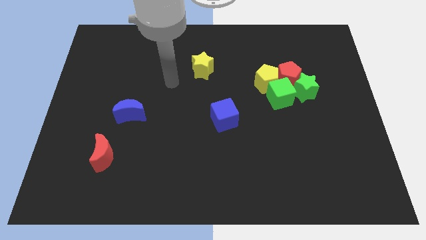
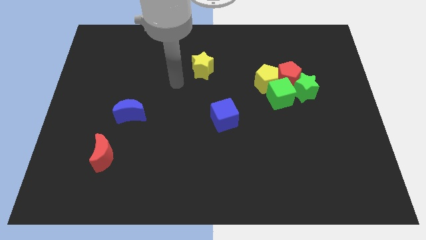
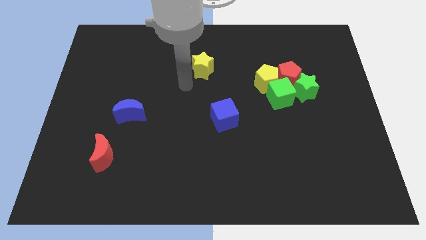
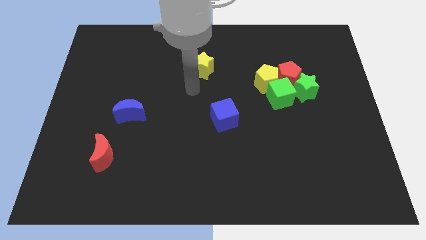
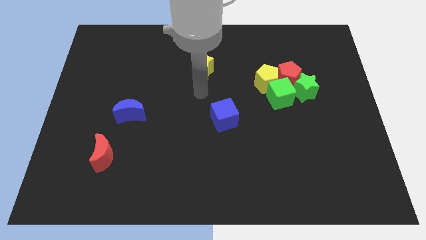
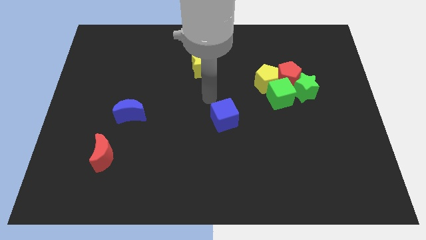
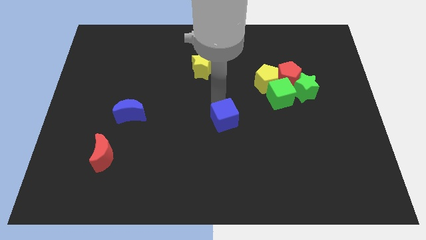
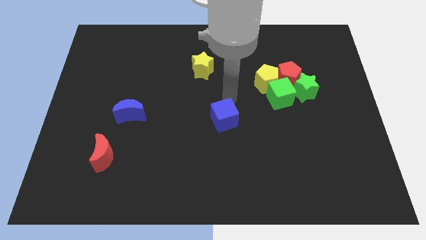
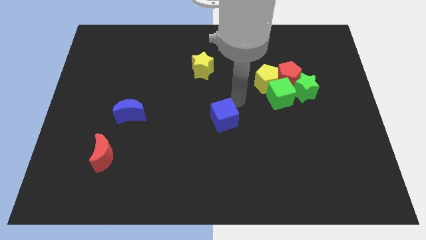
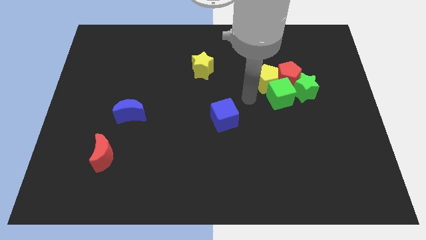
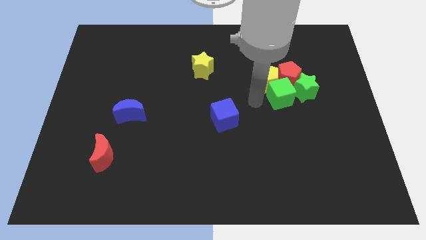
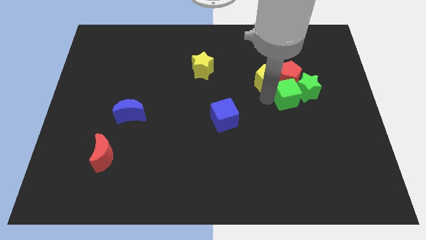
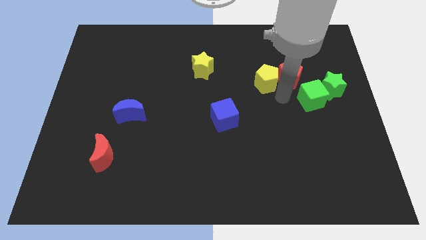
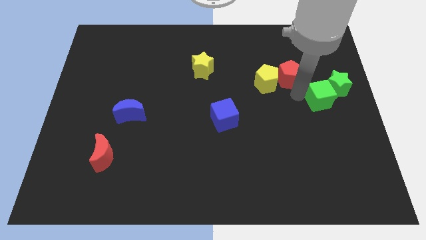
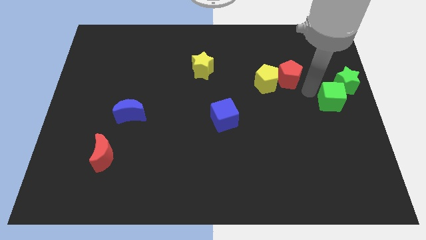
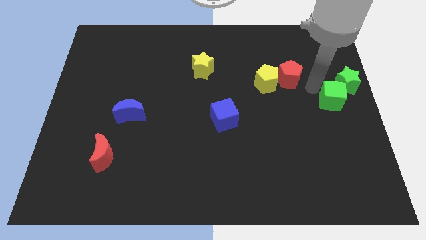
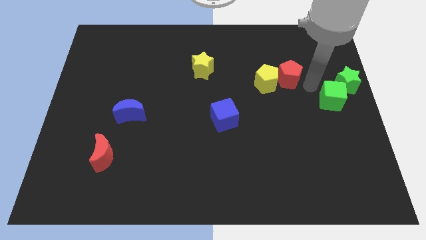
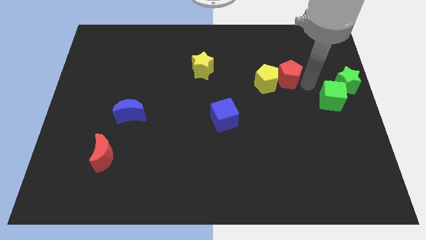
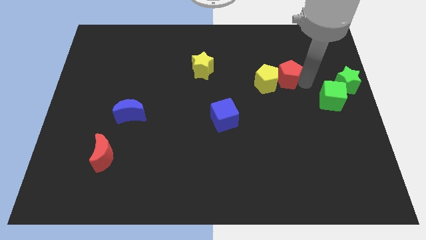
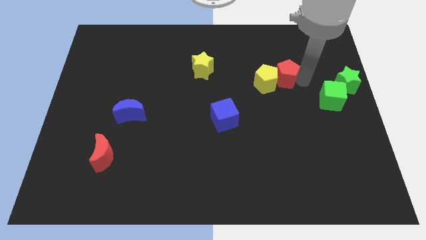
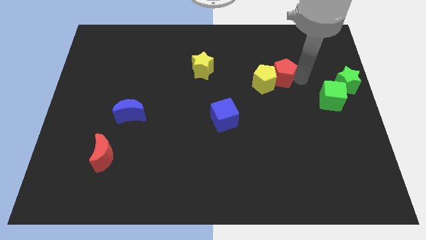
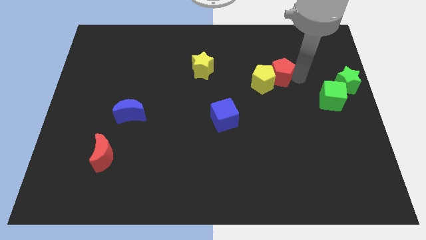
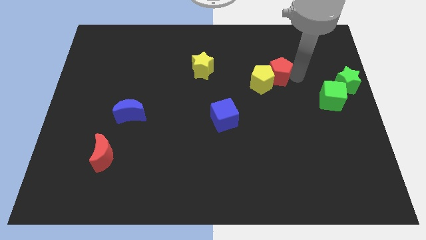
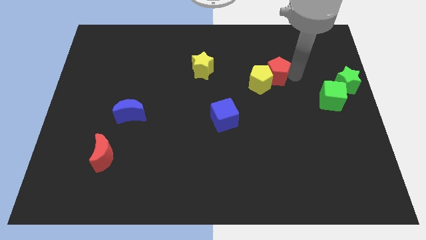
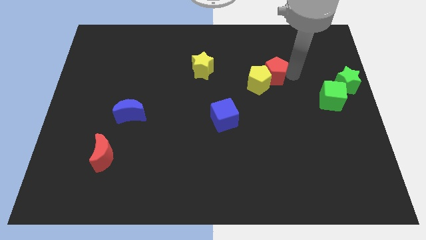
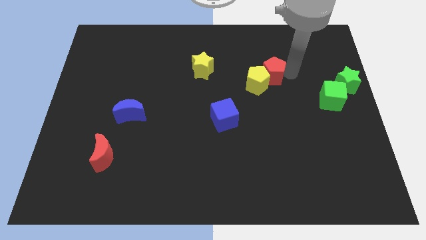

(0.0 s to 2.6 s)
pull the red pentagon apart from the green star, yellow pentagon, and green cube

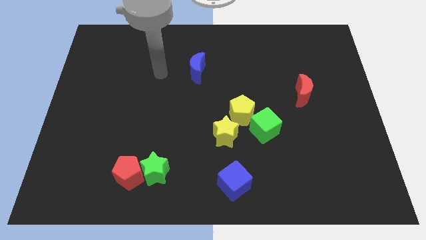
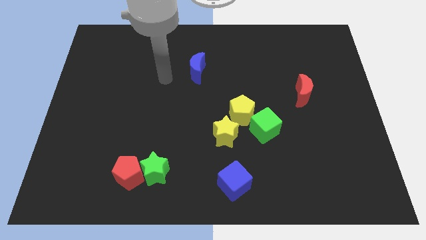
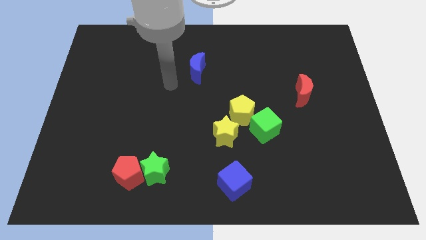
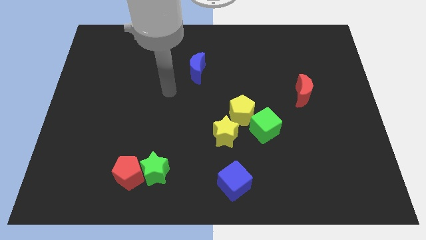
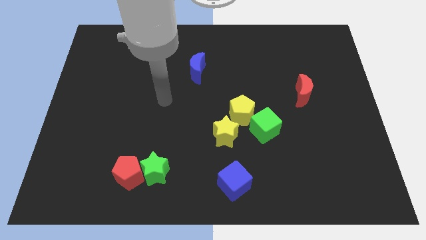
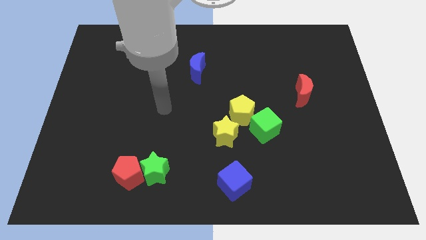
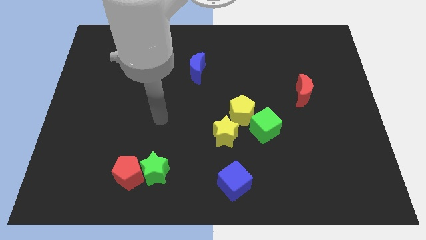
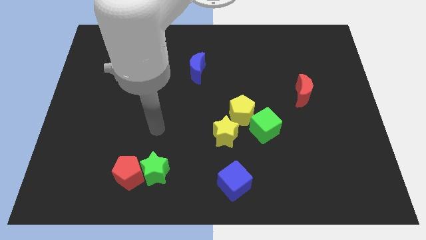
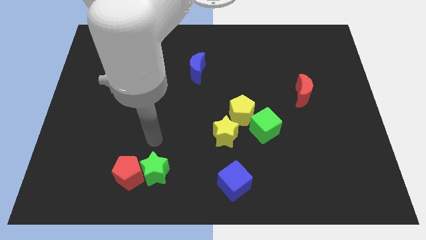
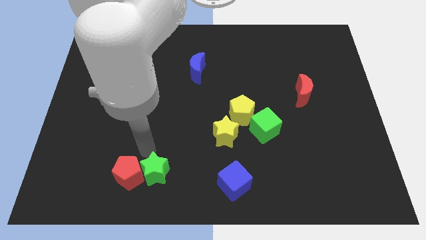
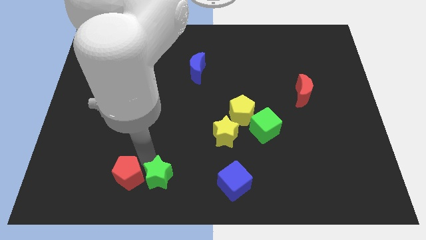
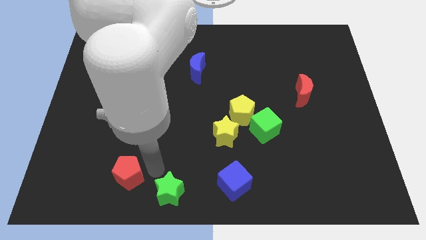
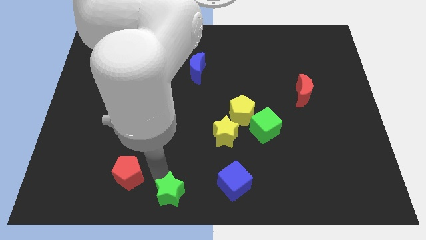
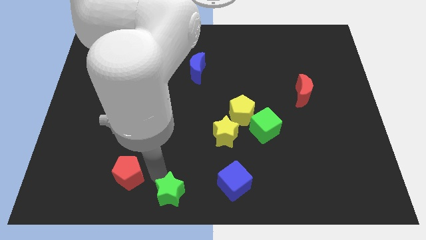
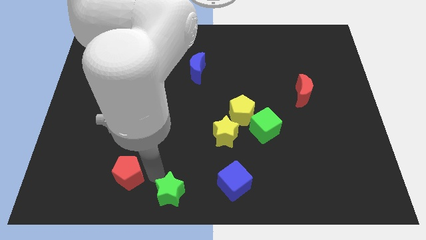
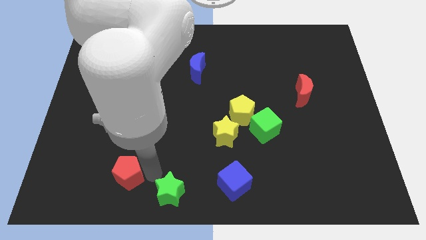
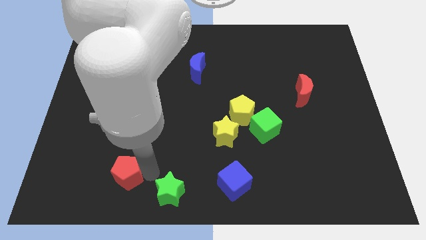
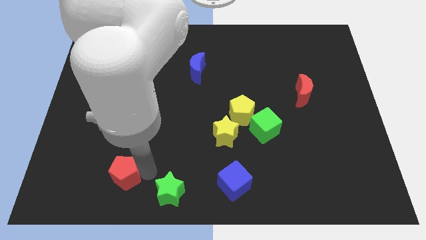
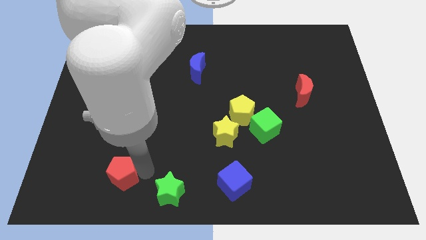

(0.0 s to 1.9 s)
separate the red pentagon from the green star

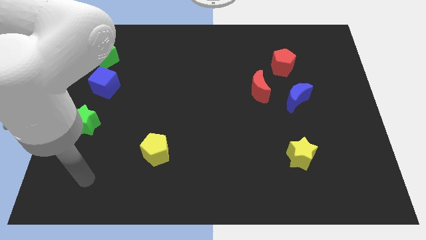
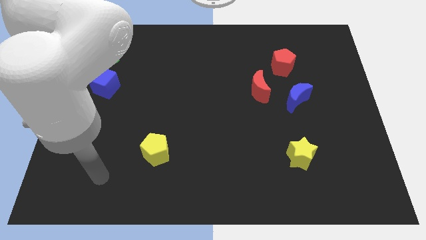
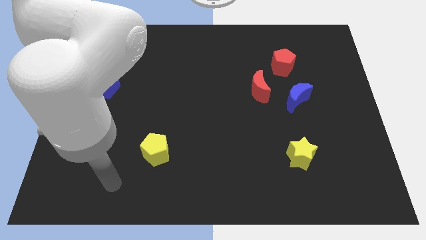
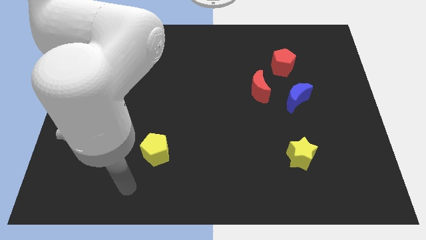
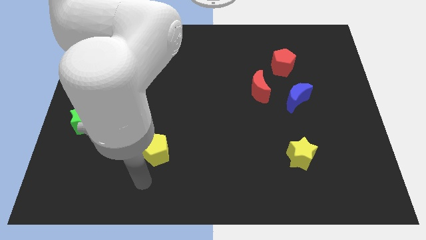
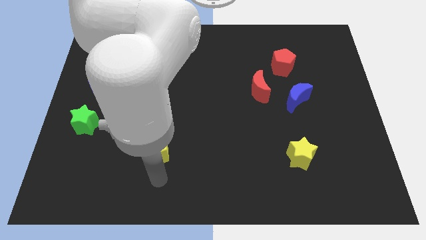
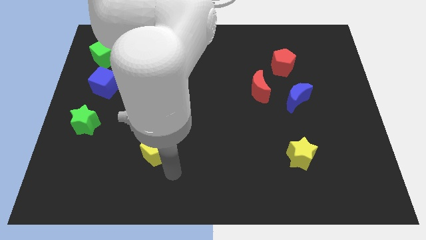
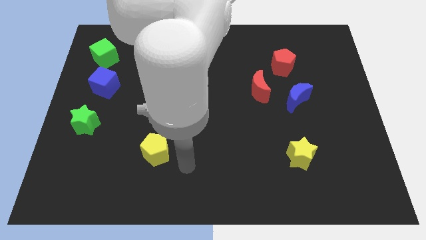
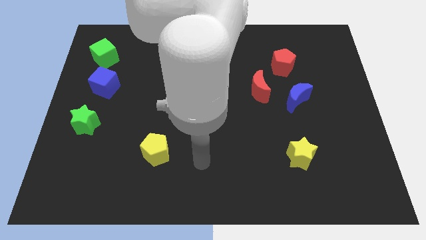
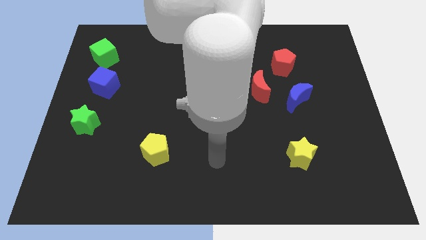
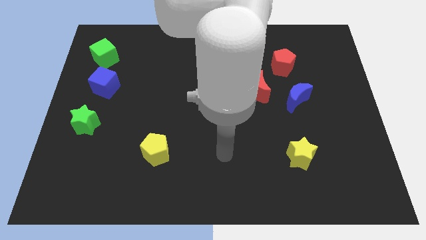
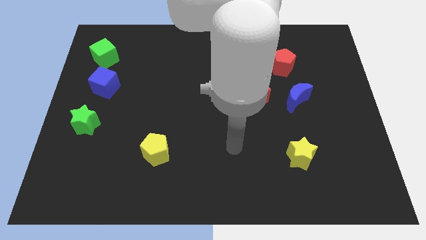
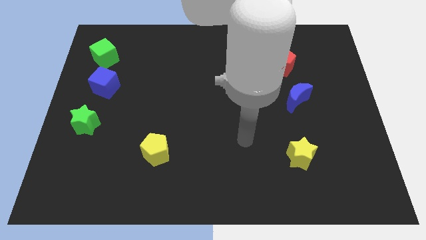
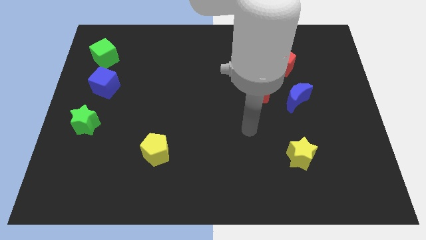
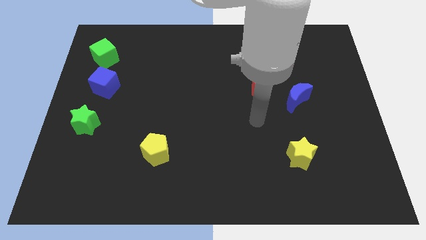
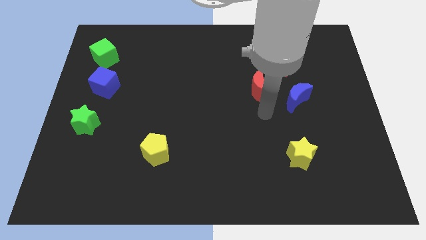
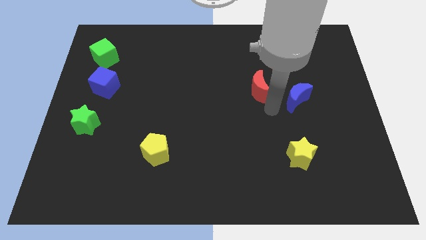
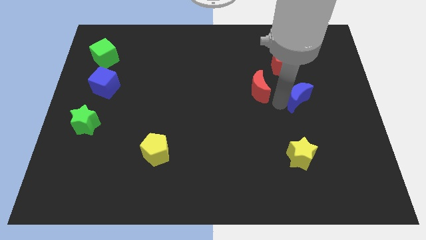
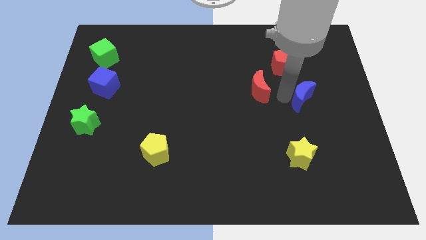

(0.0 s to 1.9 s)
separate the red moon from the blue moon

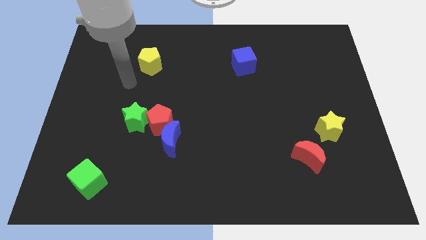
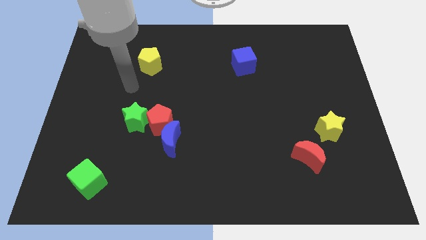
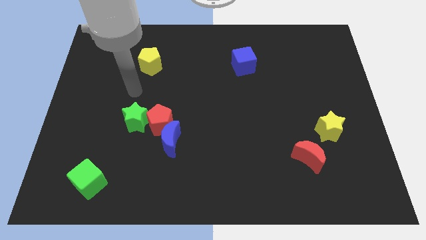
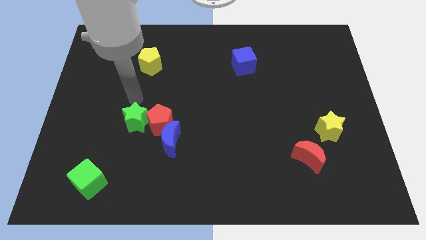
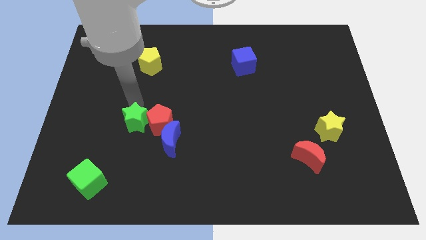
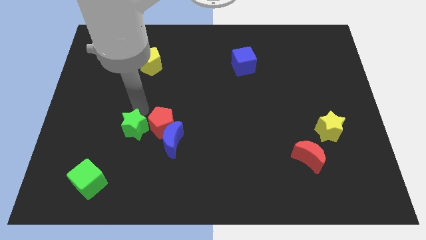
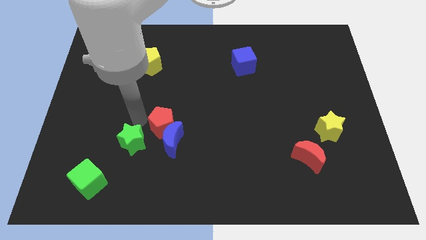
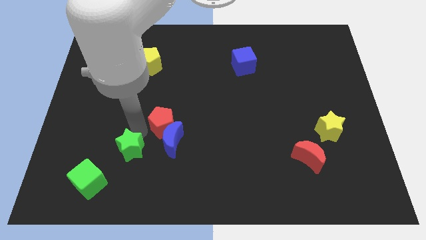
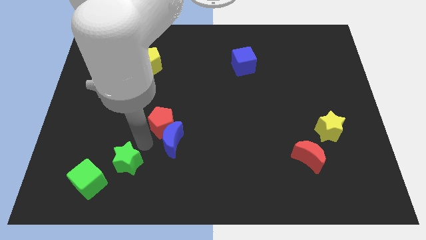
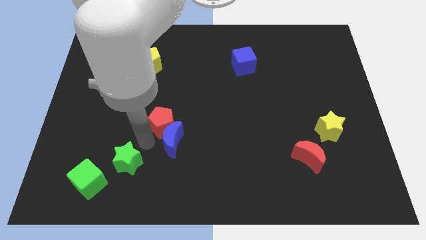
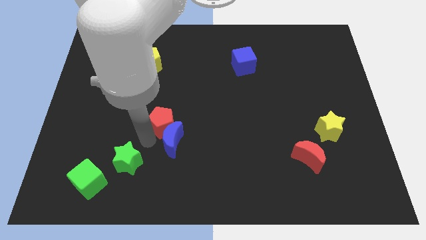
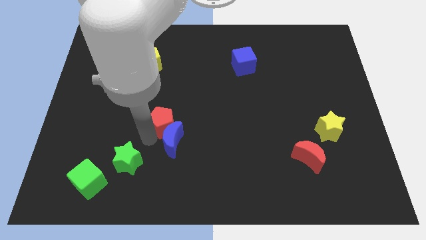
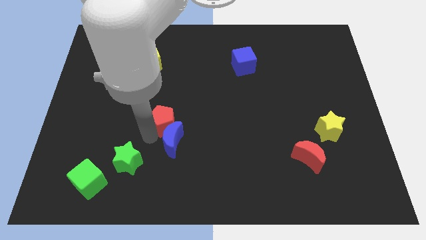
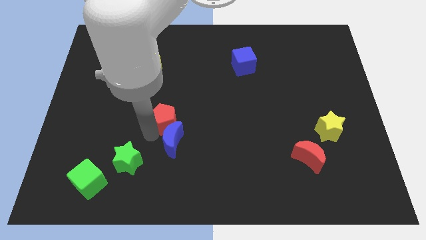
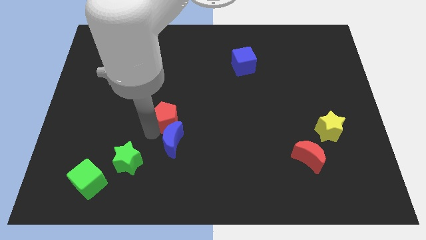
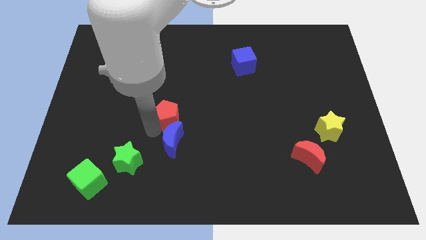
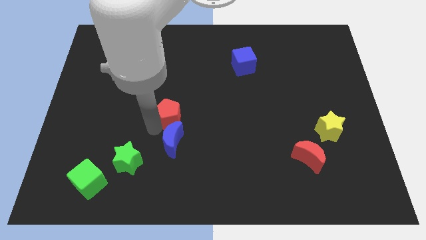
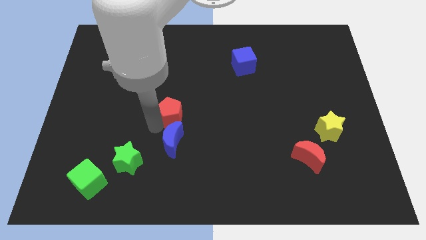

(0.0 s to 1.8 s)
separate the red pentagon from the blue moon and green star

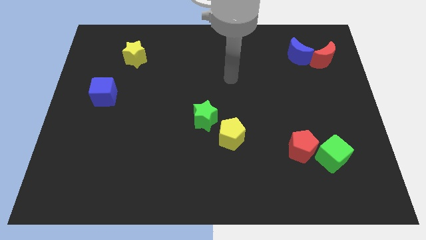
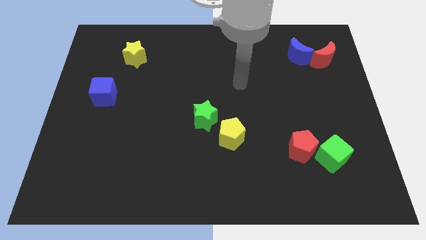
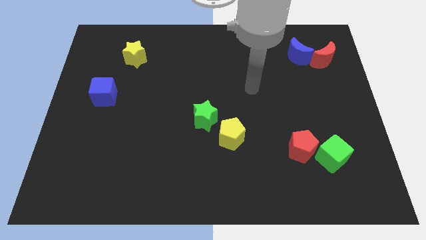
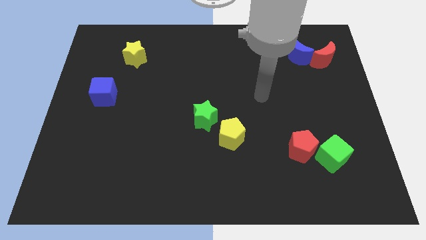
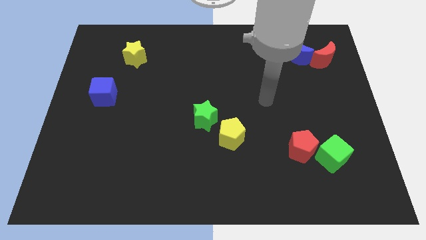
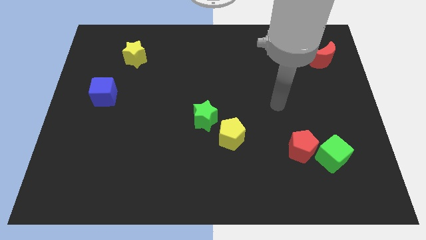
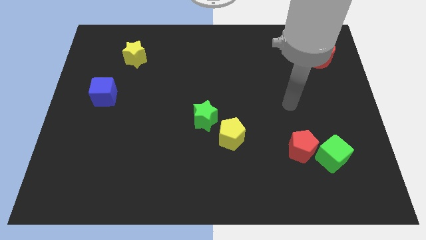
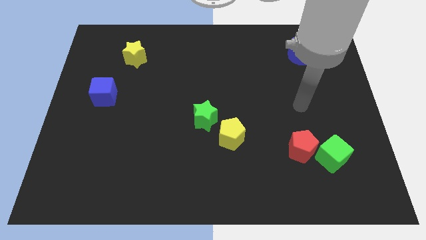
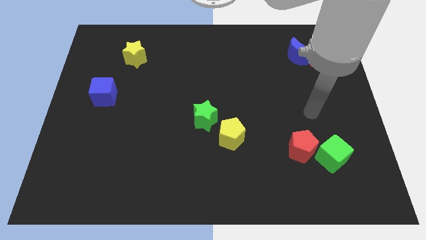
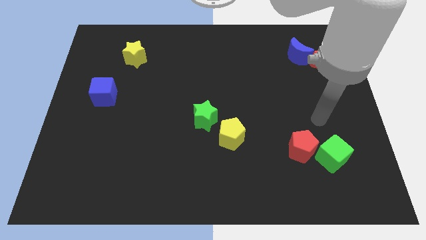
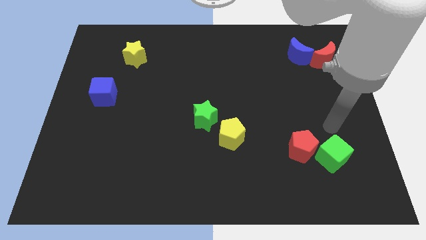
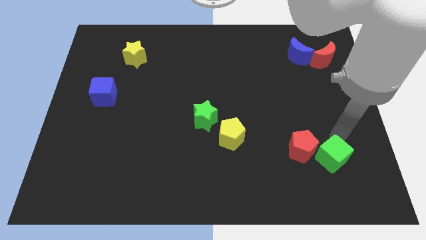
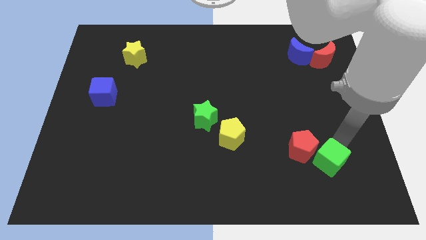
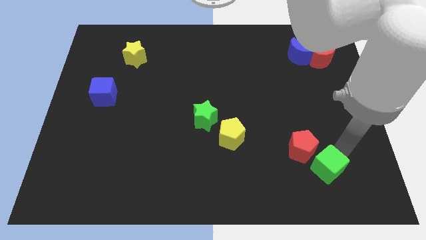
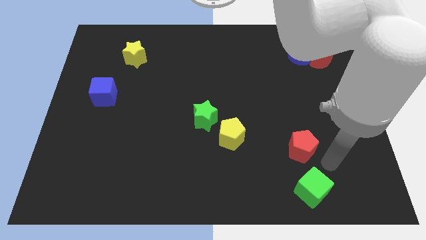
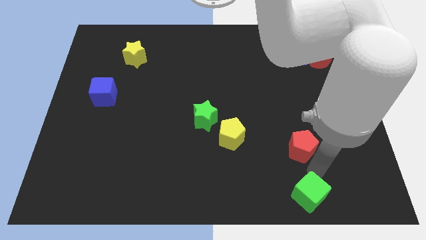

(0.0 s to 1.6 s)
separate the red pentagon from the green cube
